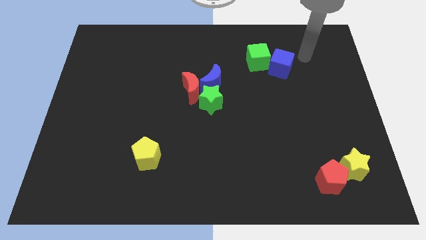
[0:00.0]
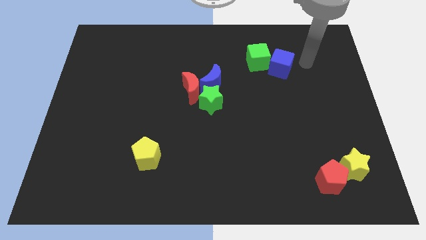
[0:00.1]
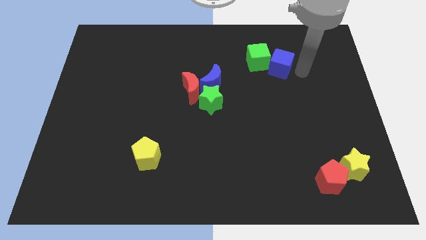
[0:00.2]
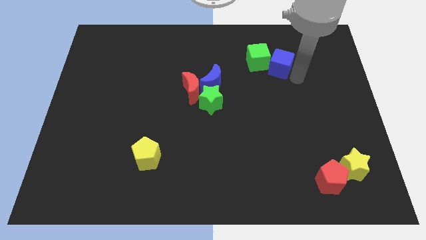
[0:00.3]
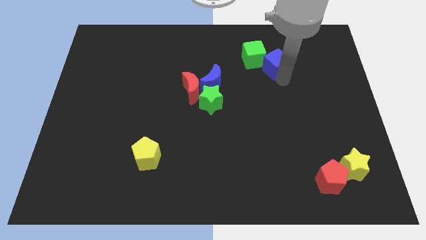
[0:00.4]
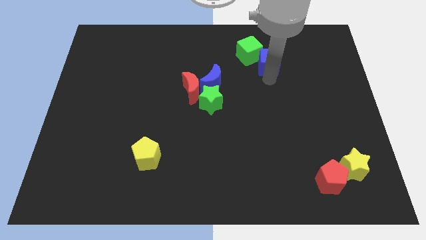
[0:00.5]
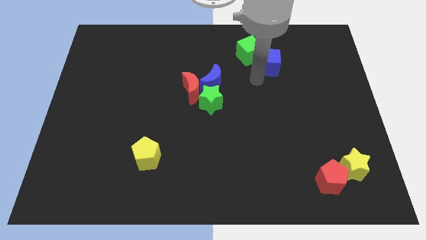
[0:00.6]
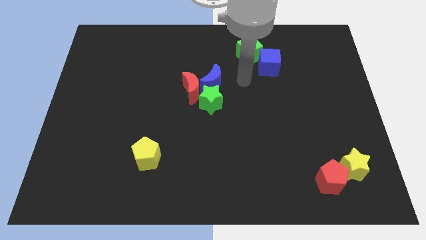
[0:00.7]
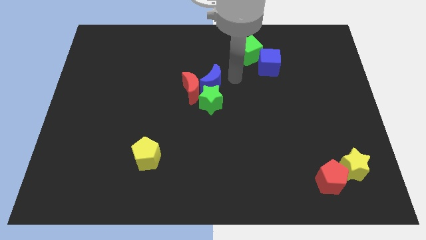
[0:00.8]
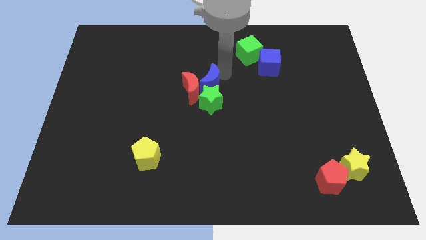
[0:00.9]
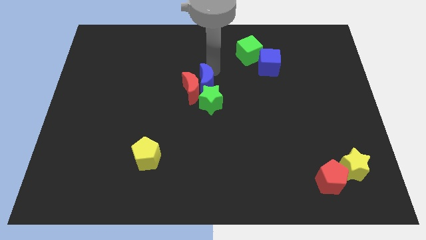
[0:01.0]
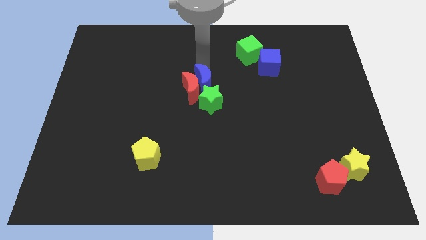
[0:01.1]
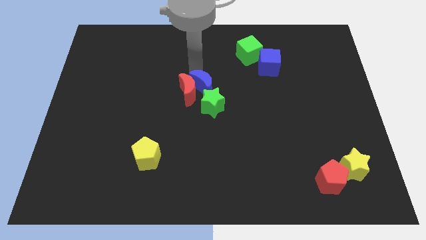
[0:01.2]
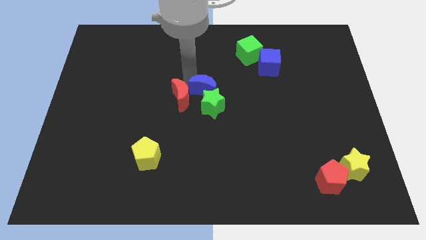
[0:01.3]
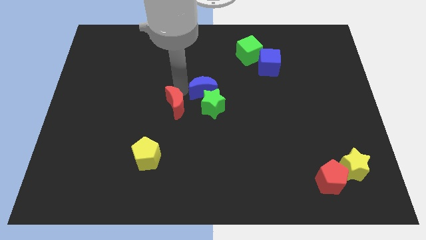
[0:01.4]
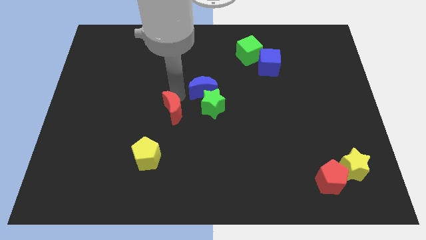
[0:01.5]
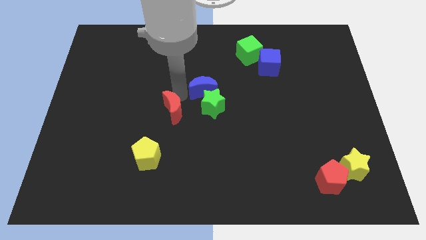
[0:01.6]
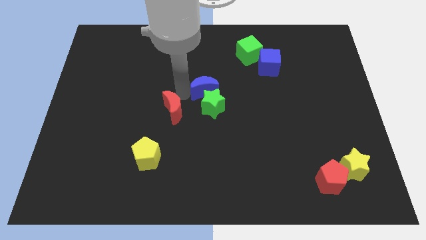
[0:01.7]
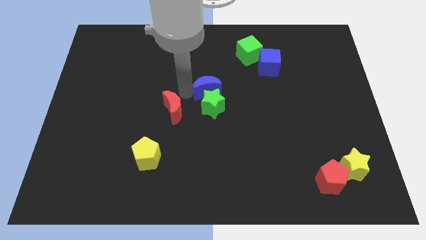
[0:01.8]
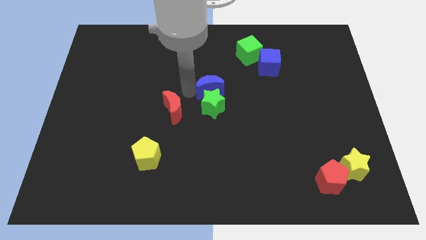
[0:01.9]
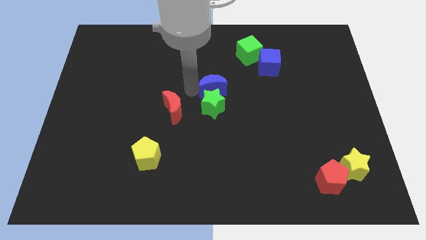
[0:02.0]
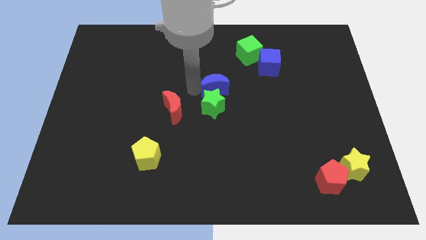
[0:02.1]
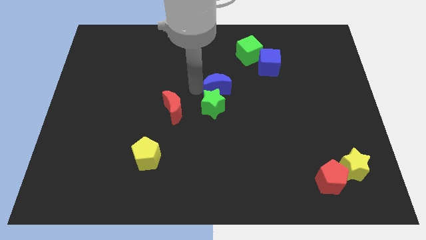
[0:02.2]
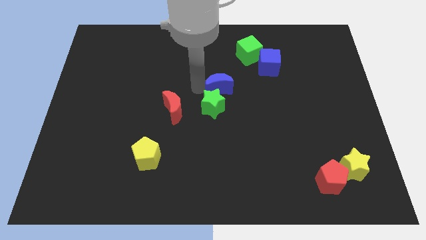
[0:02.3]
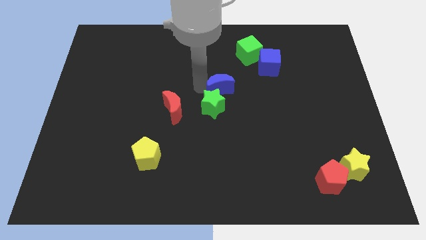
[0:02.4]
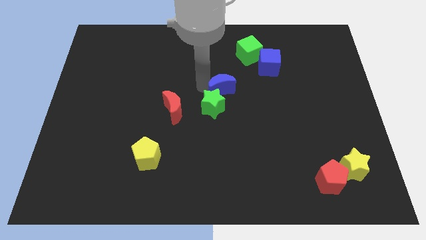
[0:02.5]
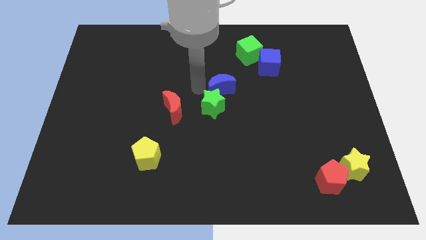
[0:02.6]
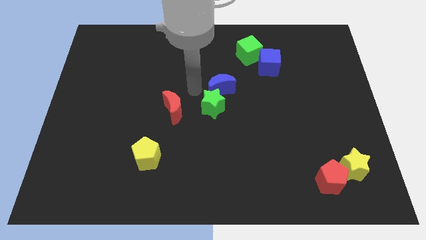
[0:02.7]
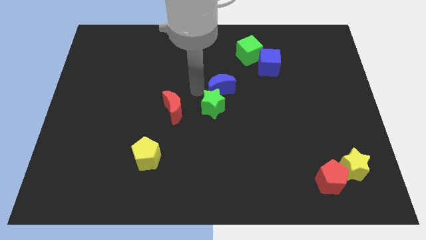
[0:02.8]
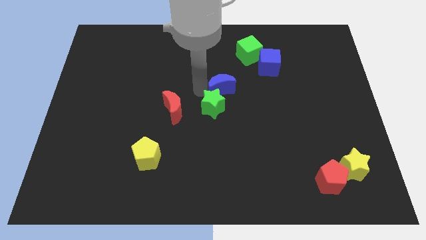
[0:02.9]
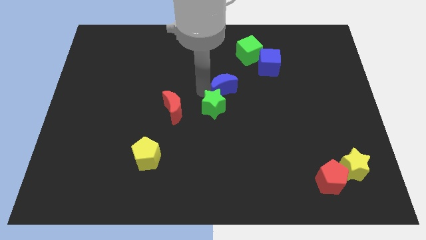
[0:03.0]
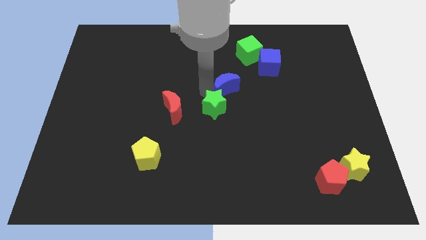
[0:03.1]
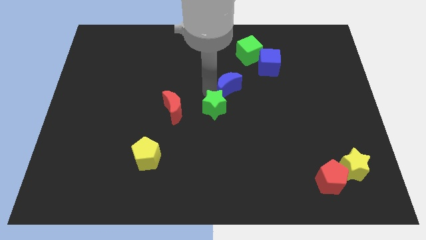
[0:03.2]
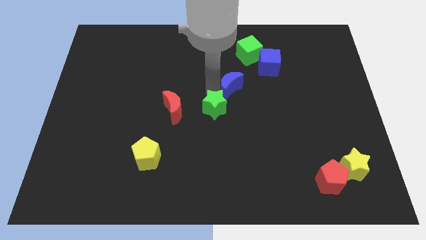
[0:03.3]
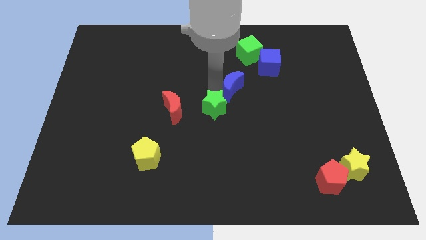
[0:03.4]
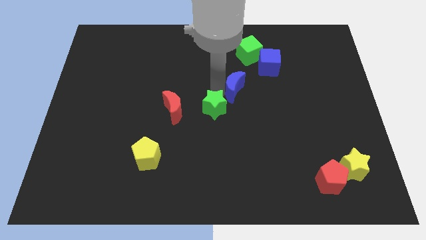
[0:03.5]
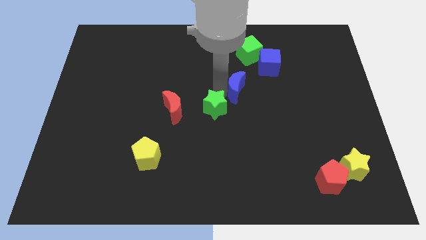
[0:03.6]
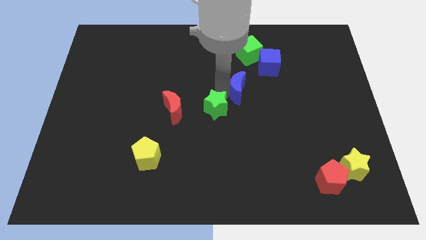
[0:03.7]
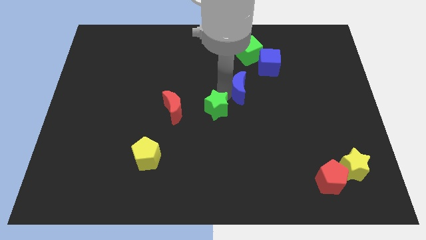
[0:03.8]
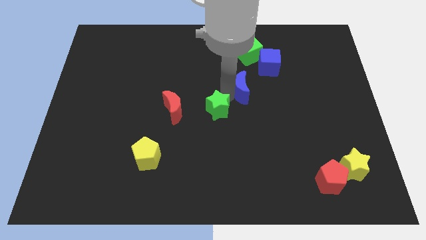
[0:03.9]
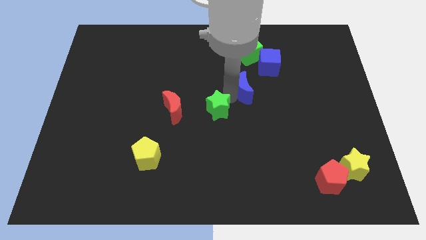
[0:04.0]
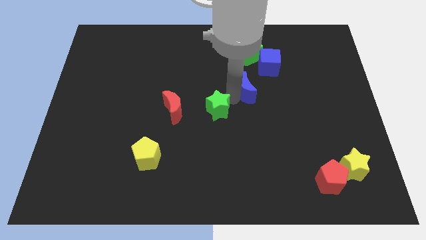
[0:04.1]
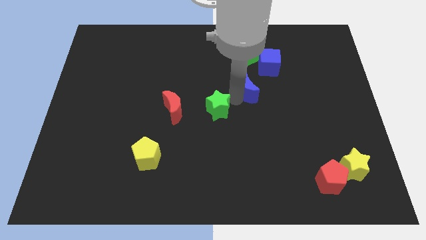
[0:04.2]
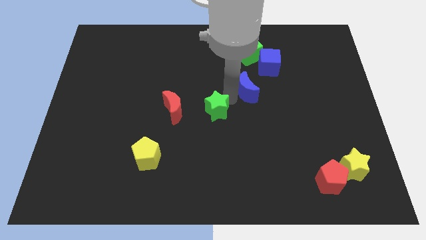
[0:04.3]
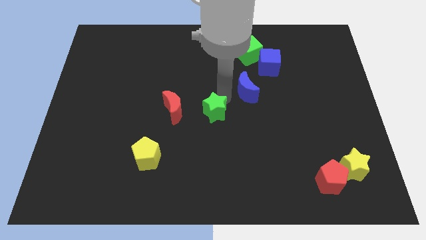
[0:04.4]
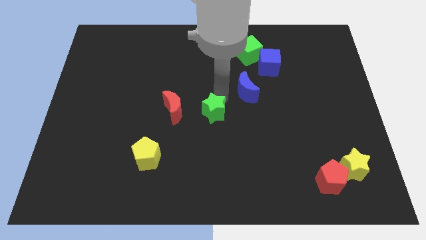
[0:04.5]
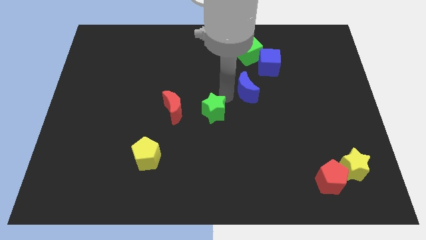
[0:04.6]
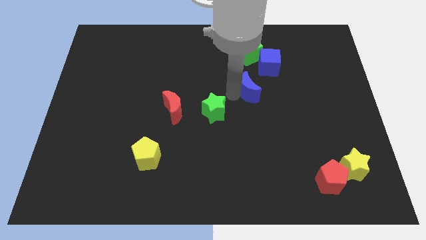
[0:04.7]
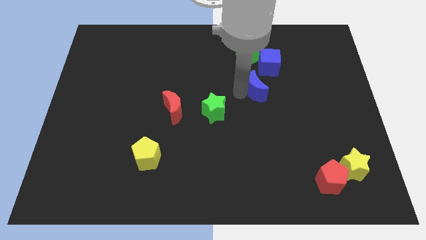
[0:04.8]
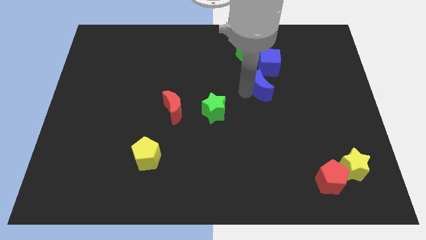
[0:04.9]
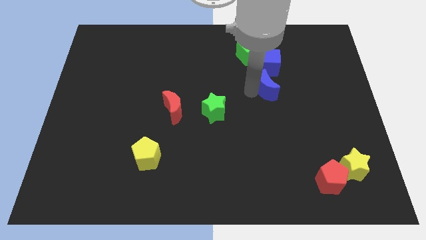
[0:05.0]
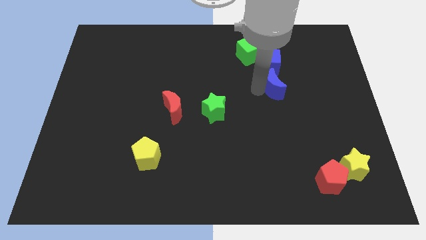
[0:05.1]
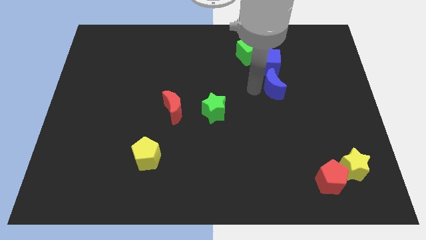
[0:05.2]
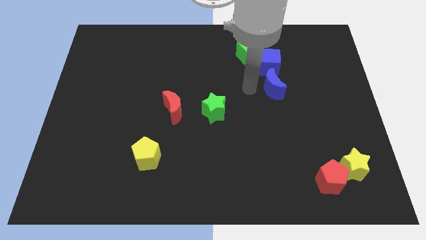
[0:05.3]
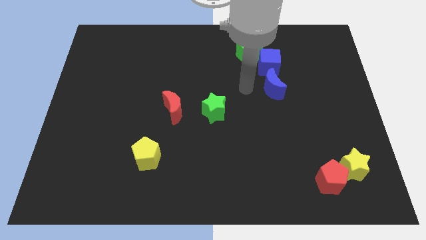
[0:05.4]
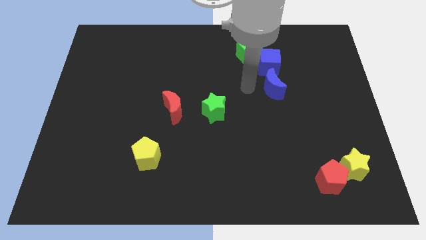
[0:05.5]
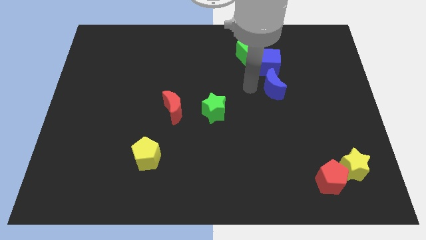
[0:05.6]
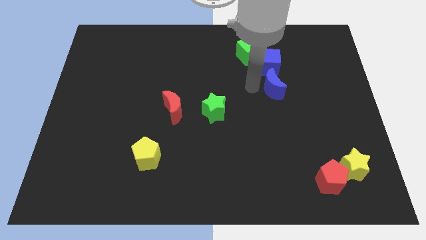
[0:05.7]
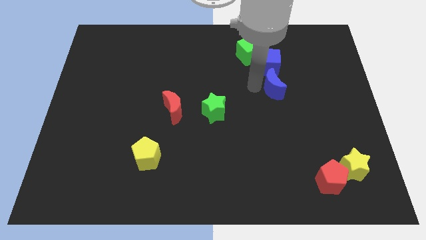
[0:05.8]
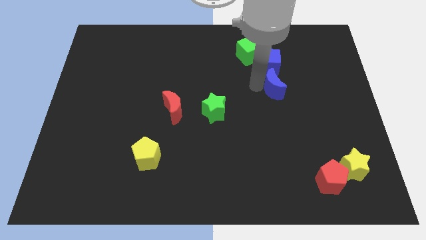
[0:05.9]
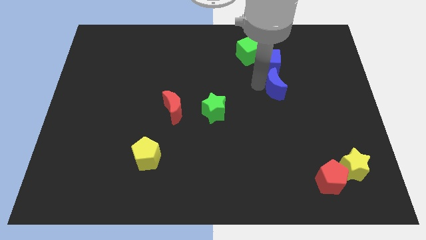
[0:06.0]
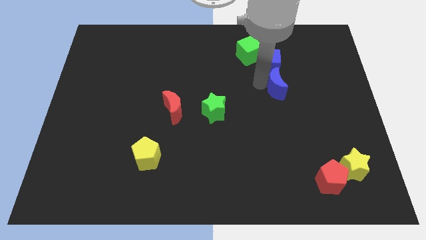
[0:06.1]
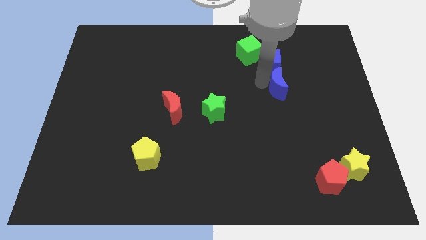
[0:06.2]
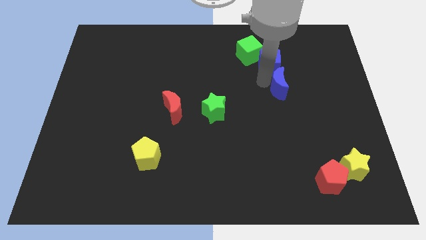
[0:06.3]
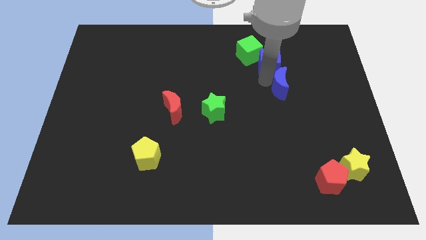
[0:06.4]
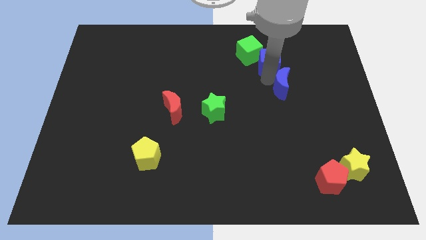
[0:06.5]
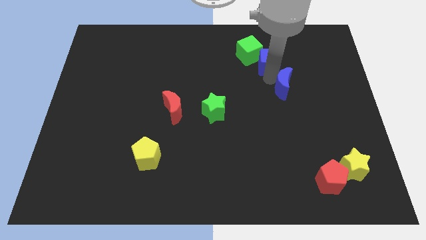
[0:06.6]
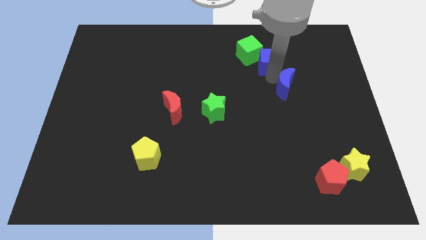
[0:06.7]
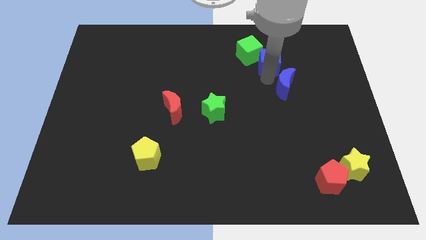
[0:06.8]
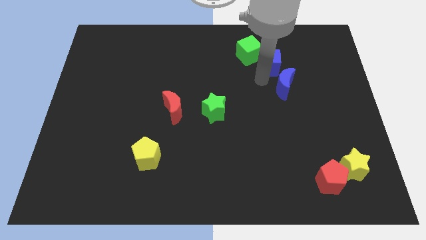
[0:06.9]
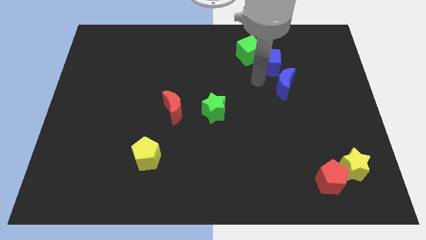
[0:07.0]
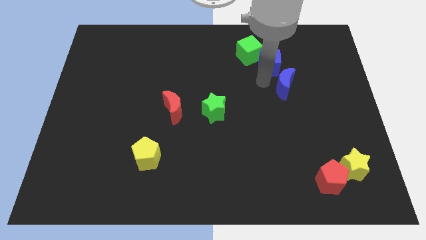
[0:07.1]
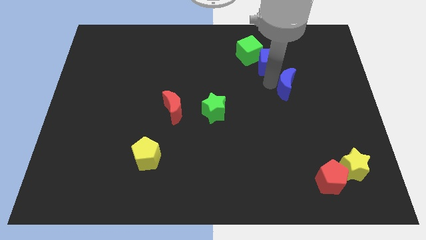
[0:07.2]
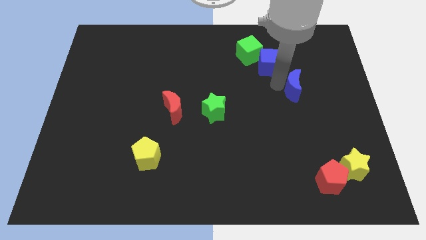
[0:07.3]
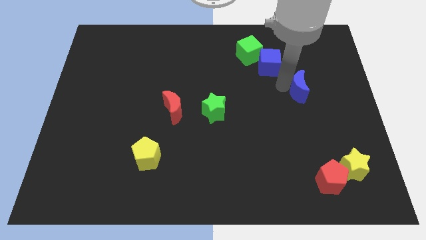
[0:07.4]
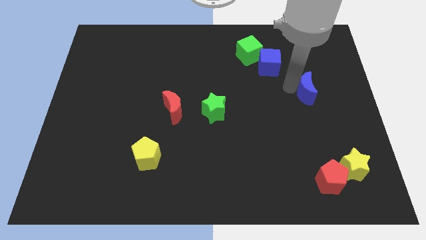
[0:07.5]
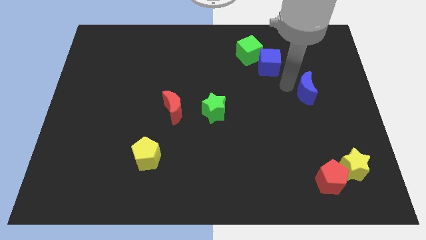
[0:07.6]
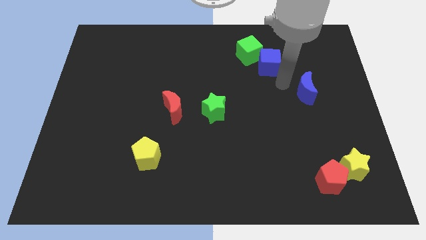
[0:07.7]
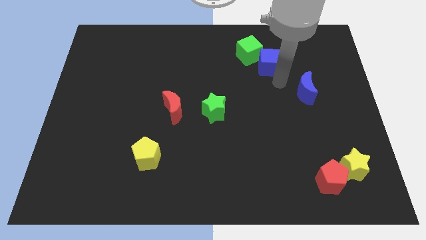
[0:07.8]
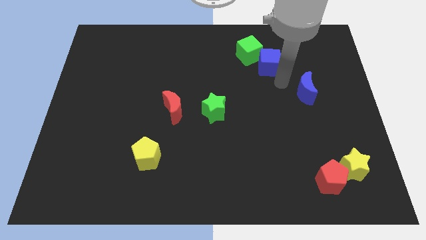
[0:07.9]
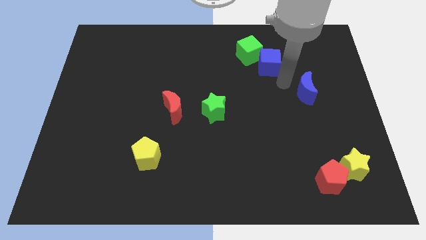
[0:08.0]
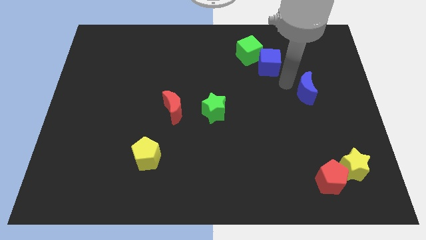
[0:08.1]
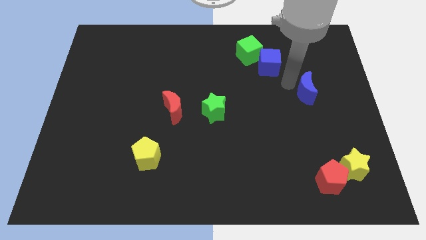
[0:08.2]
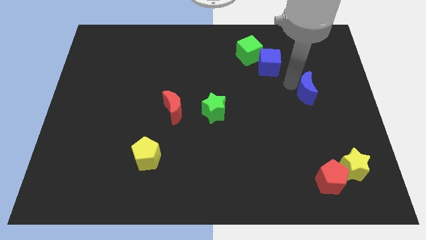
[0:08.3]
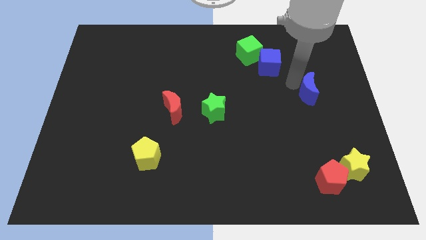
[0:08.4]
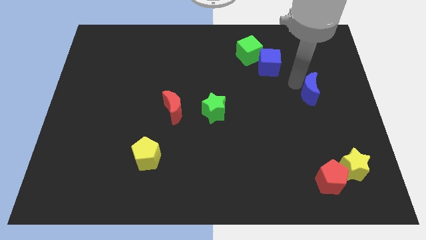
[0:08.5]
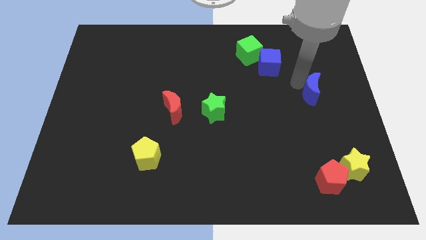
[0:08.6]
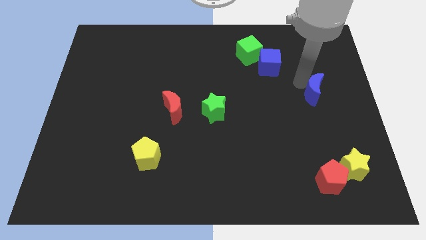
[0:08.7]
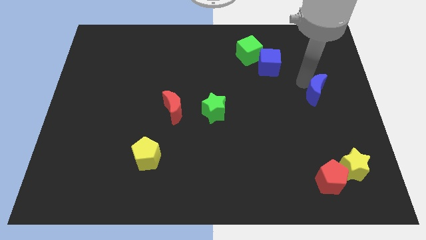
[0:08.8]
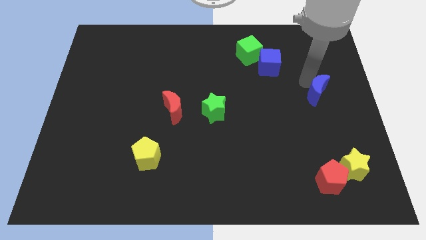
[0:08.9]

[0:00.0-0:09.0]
put the blue moon to the center right
